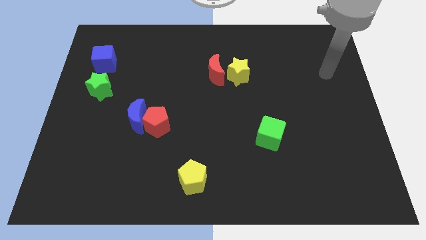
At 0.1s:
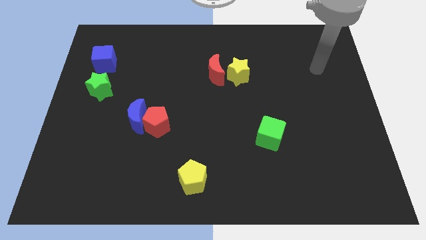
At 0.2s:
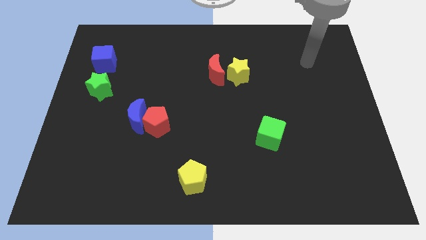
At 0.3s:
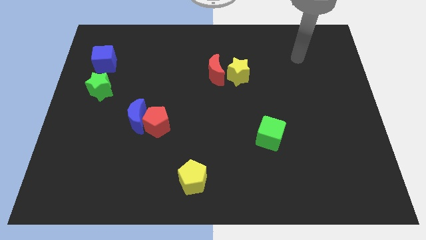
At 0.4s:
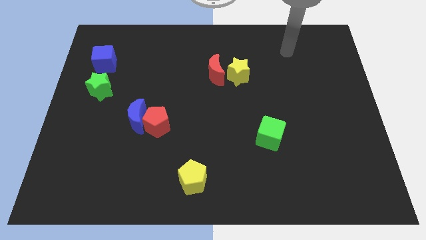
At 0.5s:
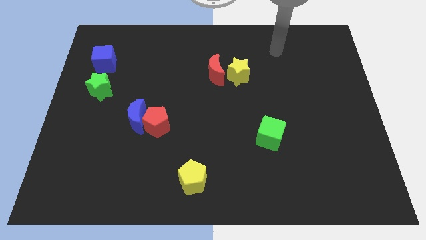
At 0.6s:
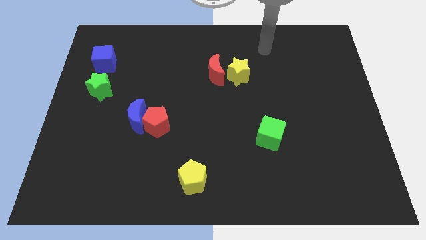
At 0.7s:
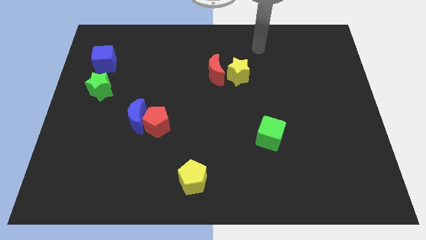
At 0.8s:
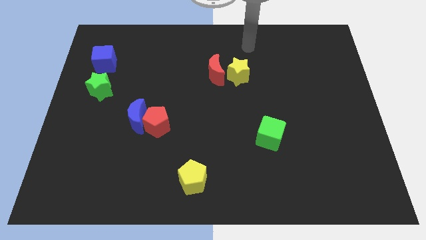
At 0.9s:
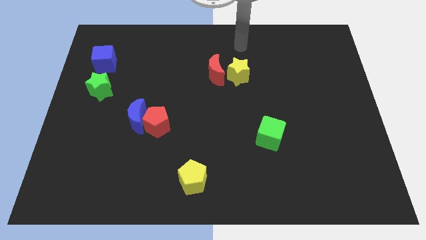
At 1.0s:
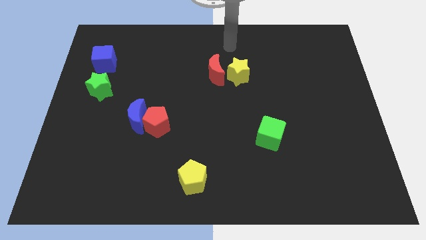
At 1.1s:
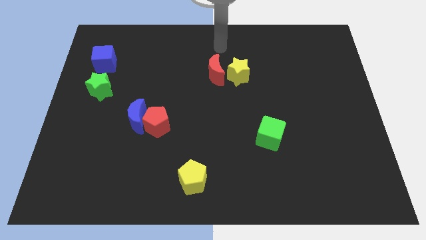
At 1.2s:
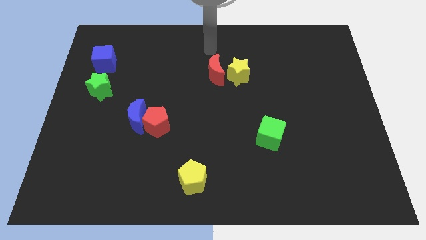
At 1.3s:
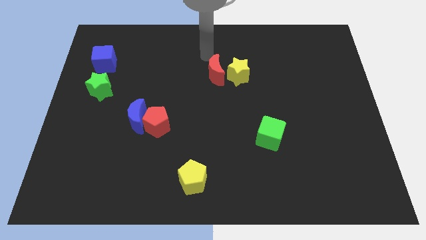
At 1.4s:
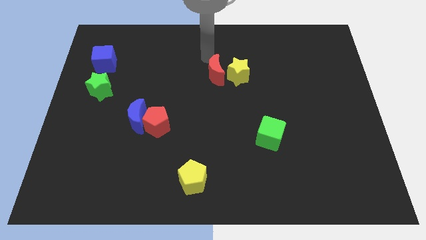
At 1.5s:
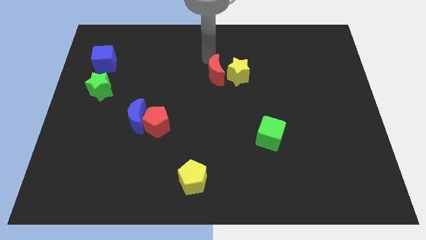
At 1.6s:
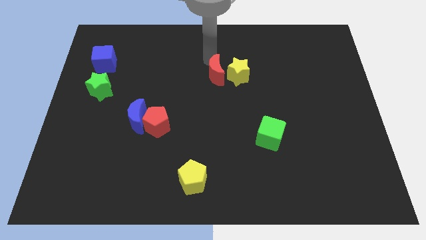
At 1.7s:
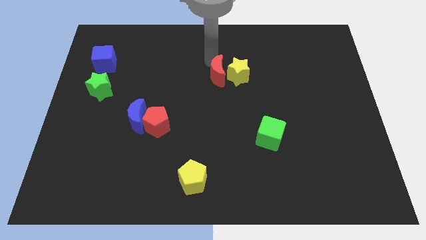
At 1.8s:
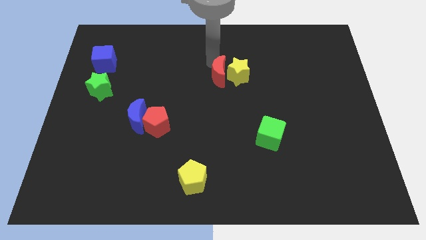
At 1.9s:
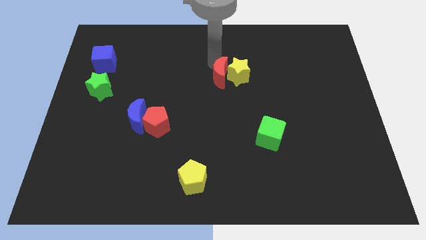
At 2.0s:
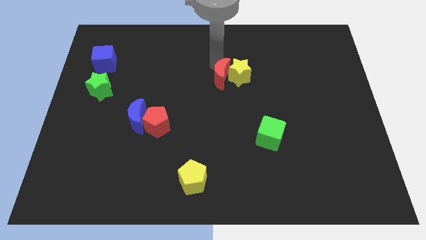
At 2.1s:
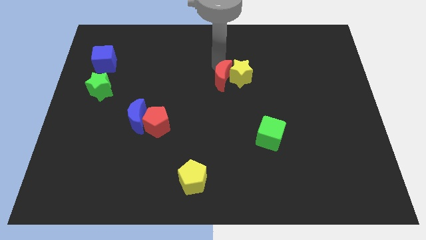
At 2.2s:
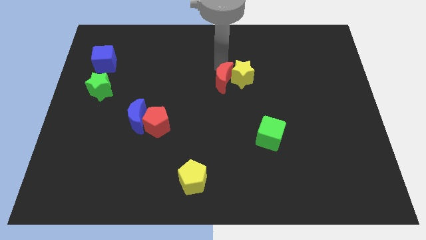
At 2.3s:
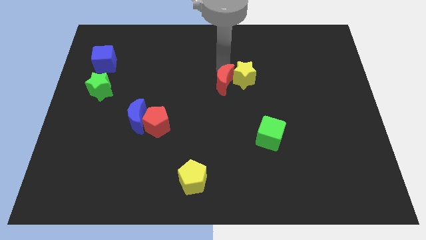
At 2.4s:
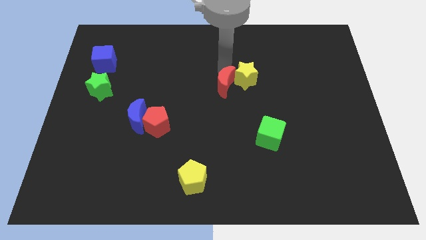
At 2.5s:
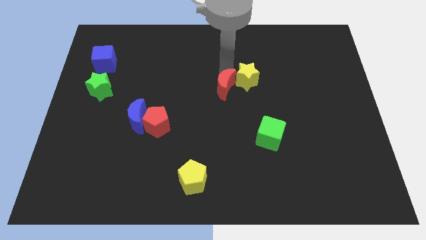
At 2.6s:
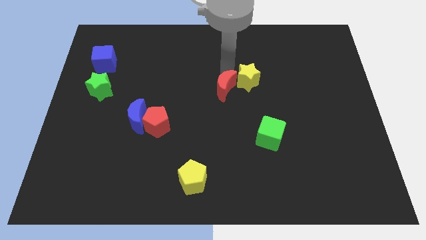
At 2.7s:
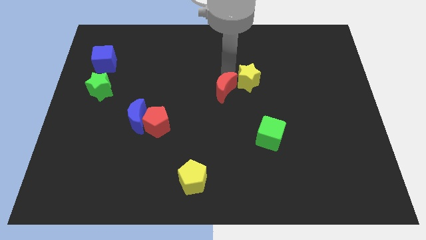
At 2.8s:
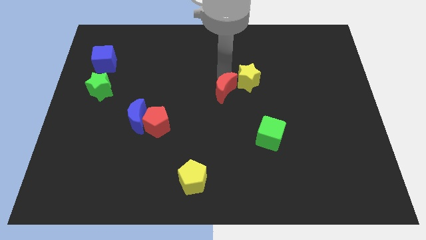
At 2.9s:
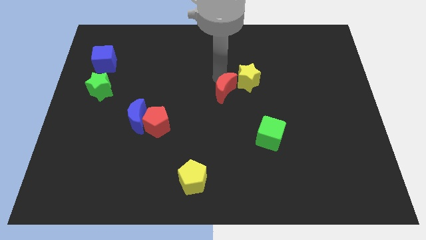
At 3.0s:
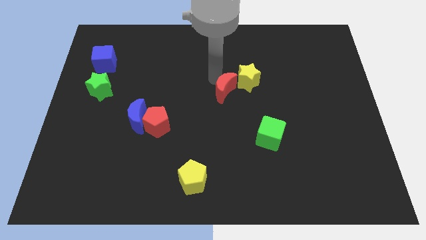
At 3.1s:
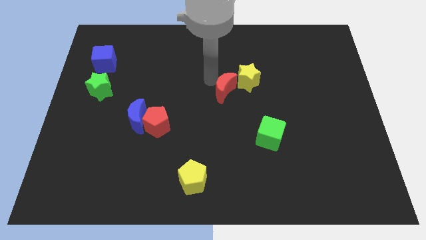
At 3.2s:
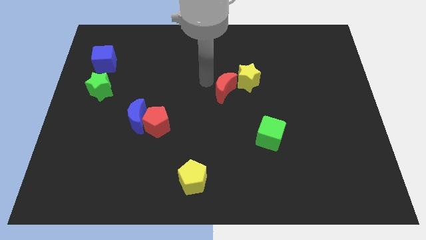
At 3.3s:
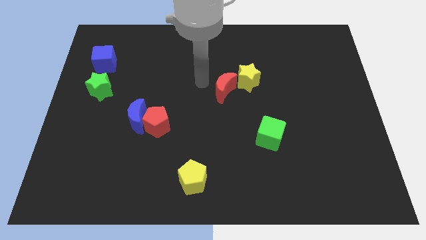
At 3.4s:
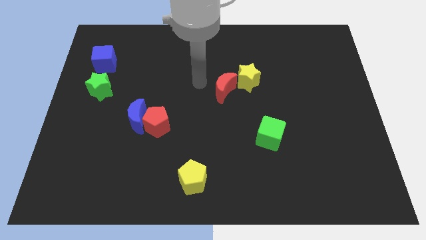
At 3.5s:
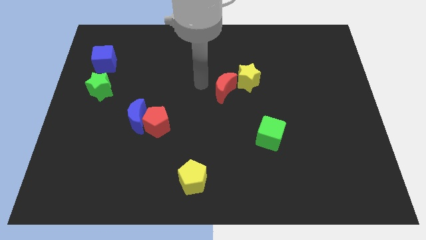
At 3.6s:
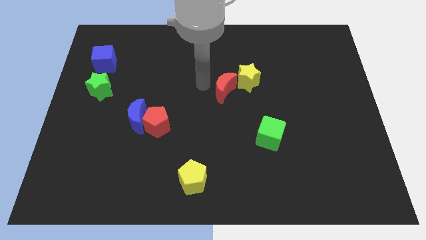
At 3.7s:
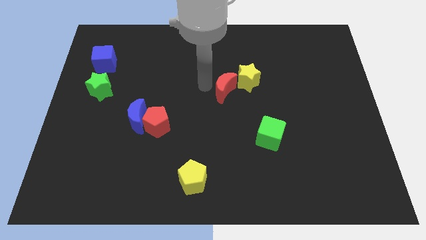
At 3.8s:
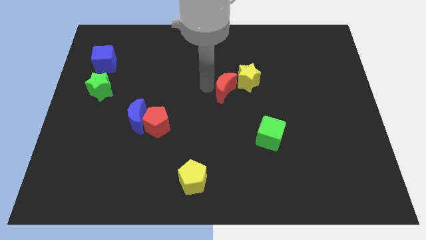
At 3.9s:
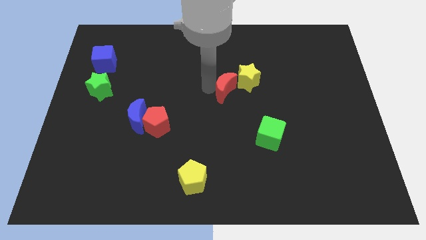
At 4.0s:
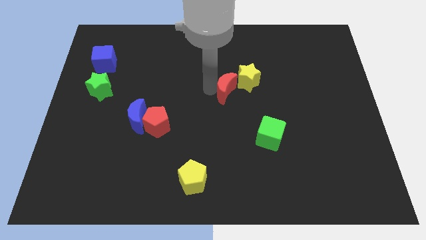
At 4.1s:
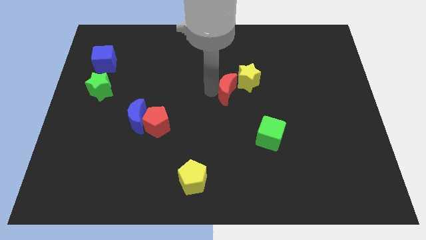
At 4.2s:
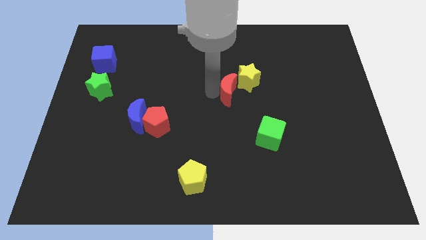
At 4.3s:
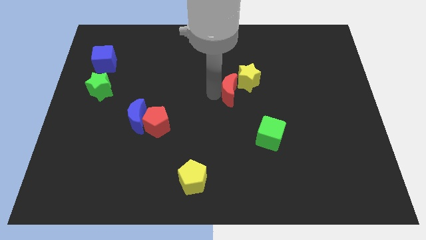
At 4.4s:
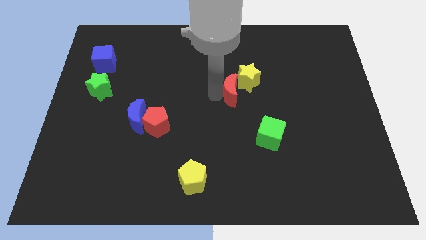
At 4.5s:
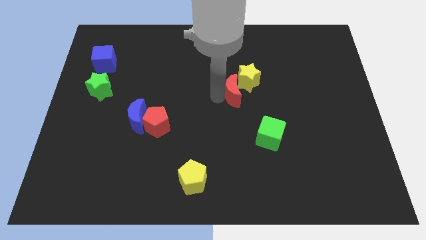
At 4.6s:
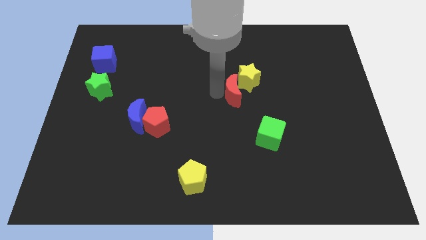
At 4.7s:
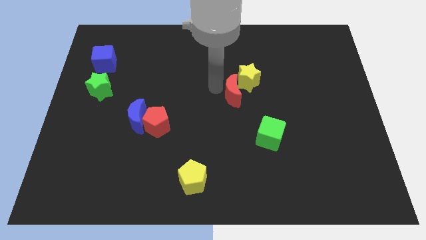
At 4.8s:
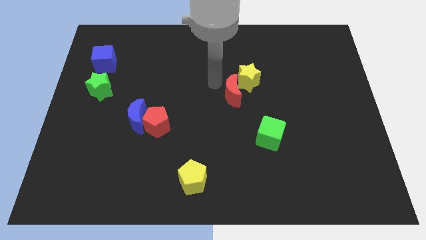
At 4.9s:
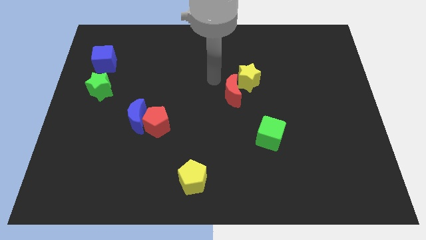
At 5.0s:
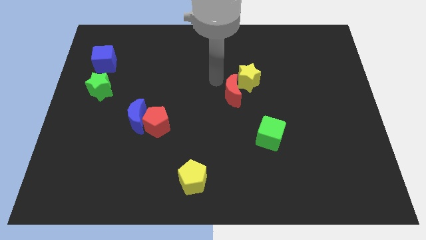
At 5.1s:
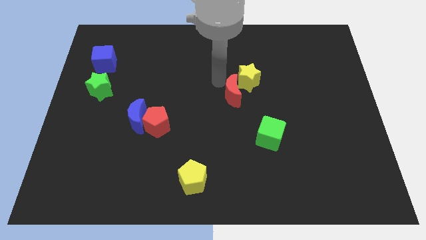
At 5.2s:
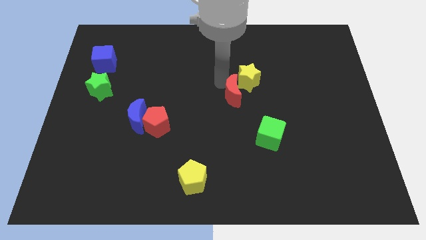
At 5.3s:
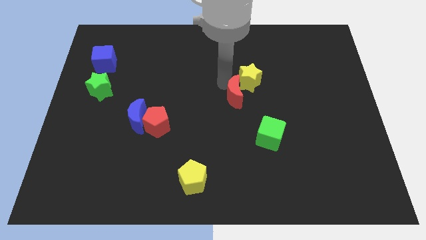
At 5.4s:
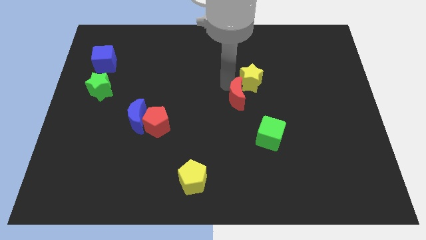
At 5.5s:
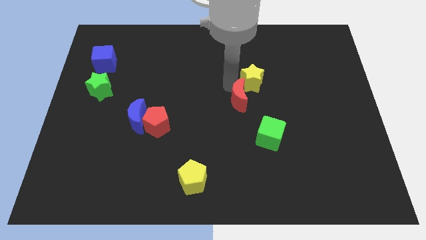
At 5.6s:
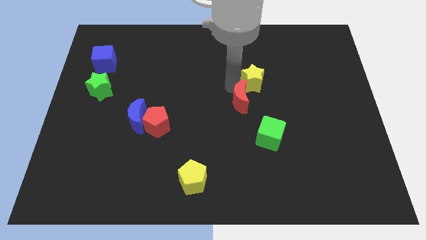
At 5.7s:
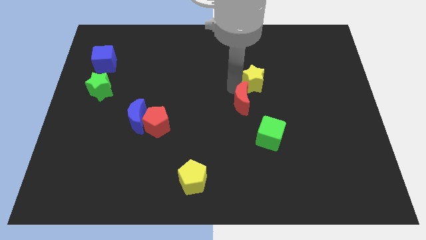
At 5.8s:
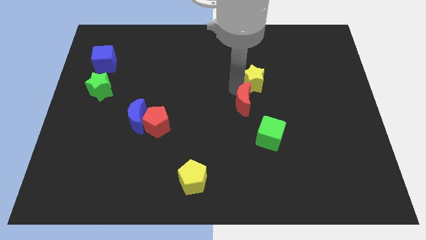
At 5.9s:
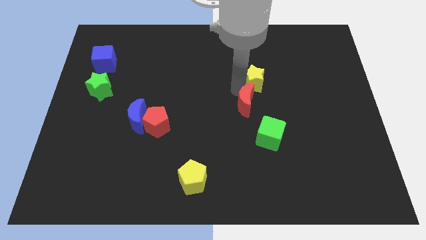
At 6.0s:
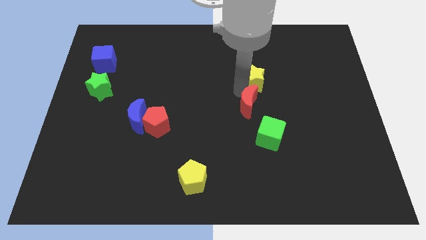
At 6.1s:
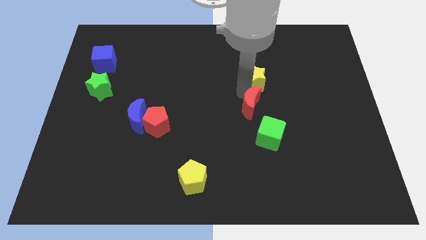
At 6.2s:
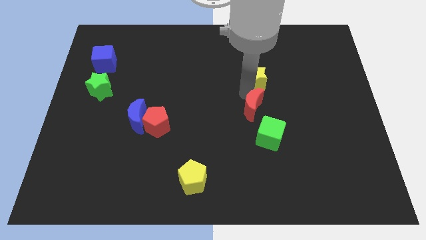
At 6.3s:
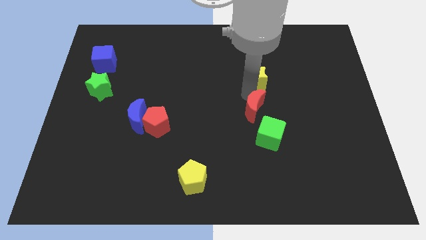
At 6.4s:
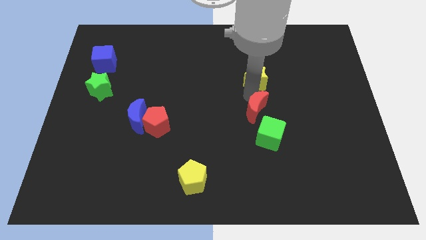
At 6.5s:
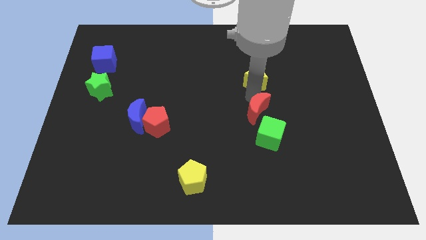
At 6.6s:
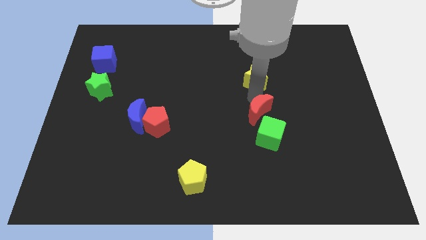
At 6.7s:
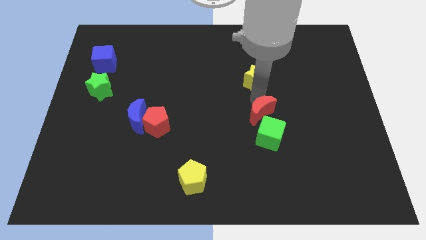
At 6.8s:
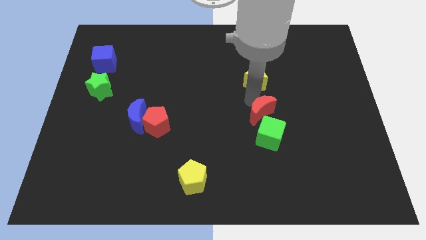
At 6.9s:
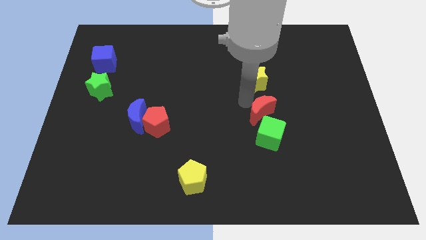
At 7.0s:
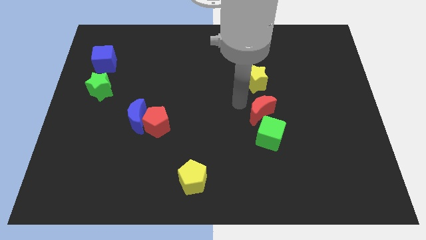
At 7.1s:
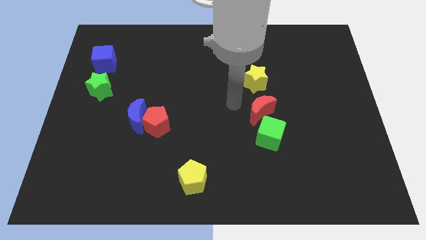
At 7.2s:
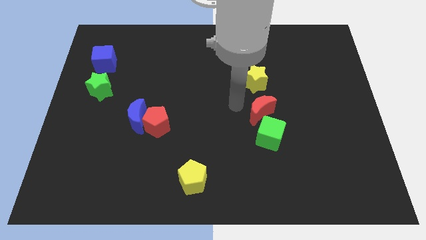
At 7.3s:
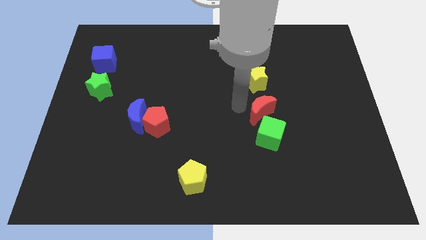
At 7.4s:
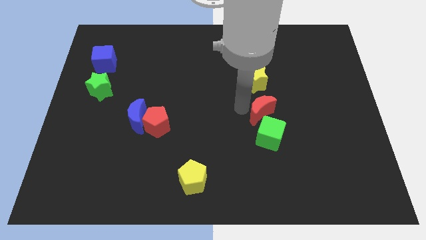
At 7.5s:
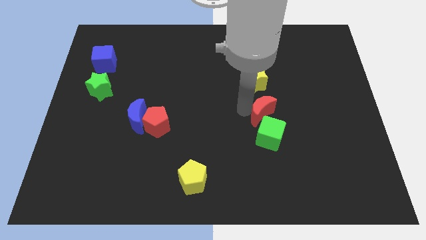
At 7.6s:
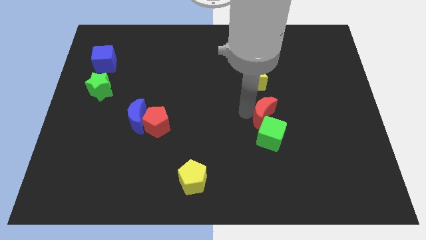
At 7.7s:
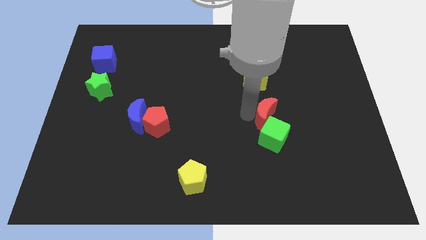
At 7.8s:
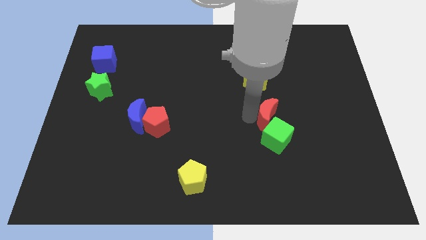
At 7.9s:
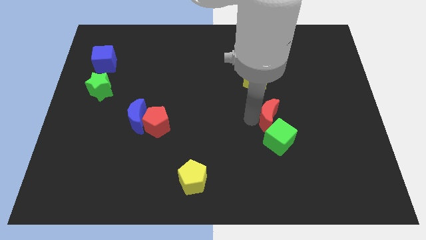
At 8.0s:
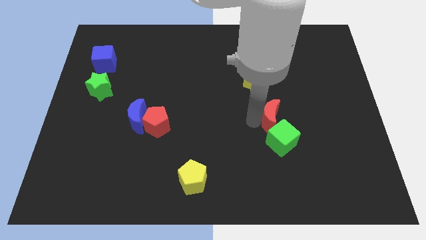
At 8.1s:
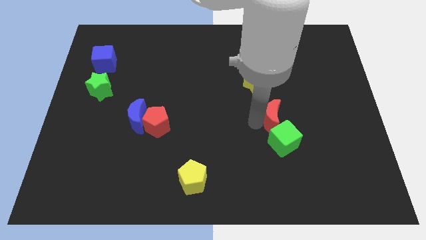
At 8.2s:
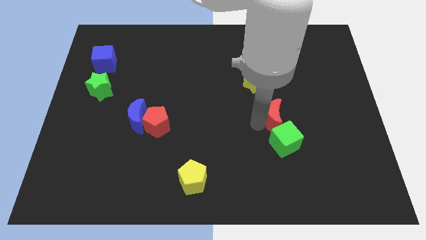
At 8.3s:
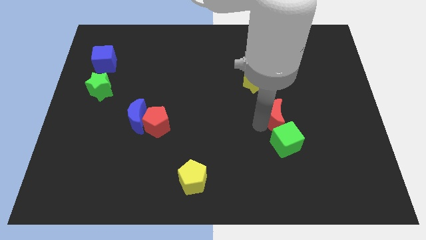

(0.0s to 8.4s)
push the red moon down and then right
